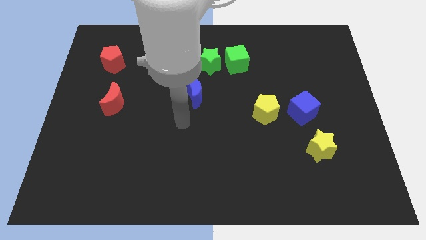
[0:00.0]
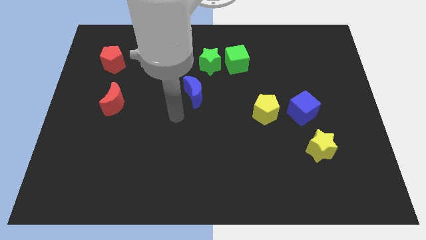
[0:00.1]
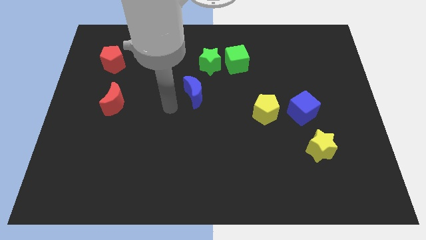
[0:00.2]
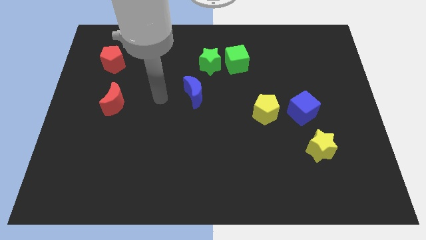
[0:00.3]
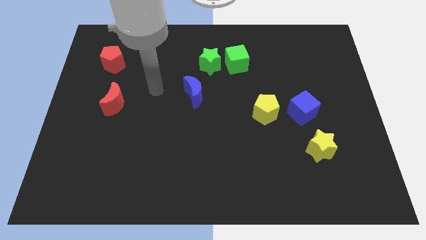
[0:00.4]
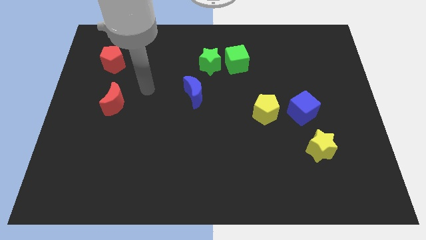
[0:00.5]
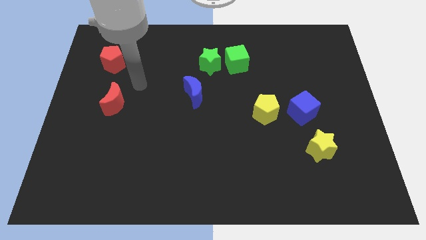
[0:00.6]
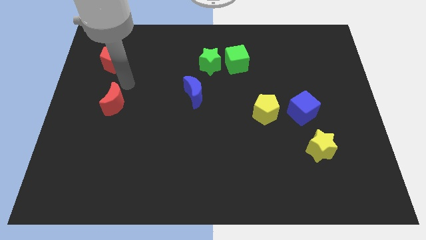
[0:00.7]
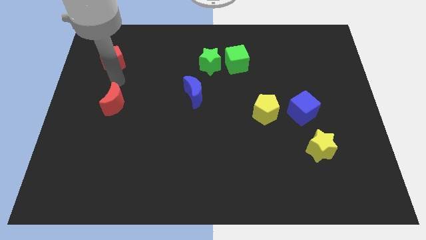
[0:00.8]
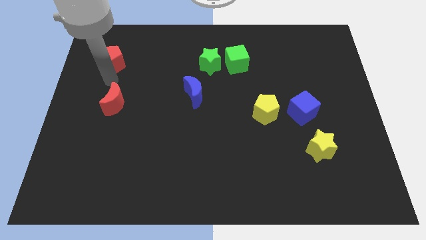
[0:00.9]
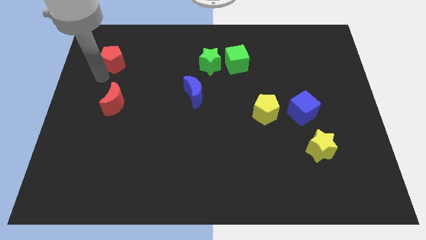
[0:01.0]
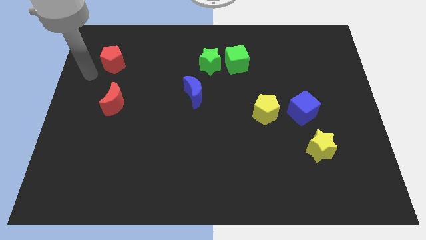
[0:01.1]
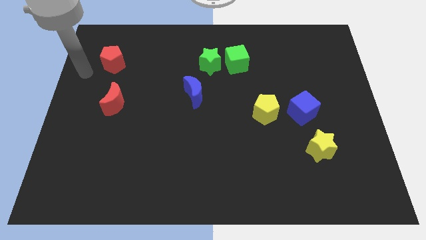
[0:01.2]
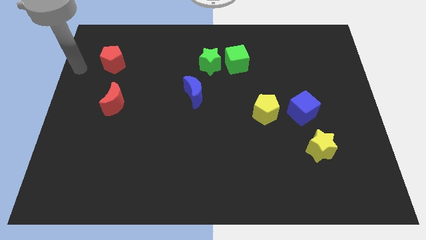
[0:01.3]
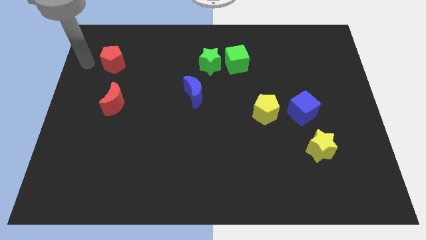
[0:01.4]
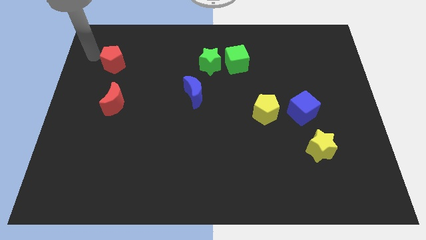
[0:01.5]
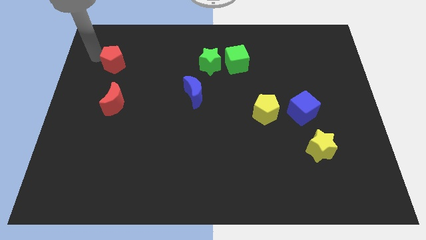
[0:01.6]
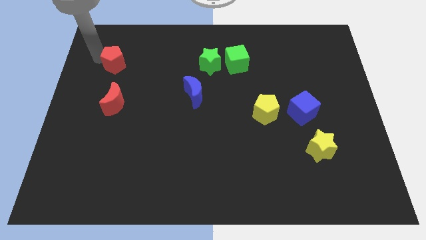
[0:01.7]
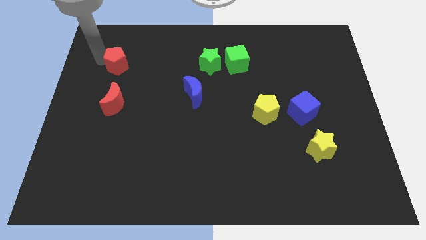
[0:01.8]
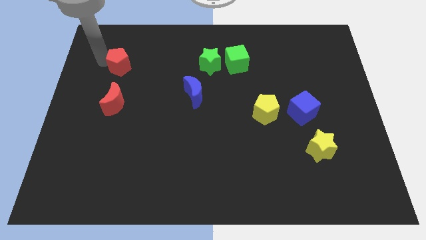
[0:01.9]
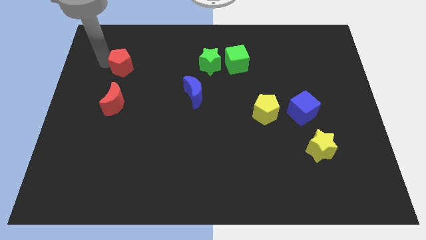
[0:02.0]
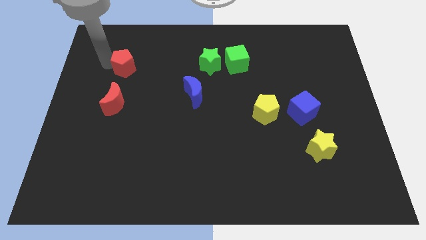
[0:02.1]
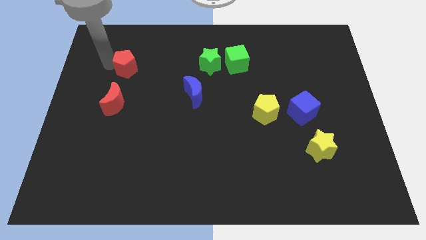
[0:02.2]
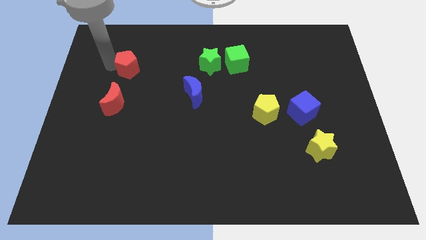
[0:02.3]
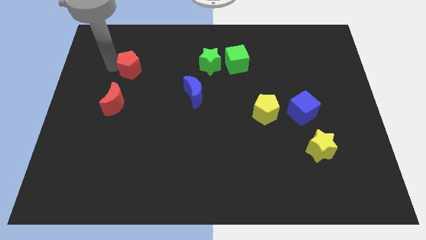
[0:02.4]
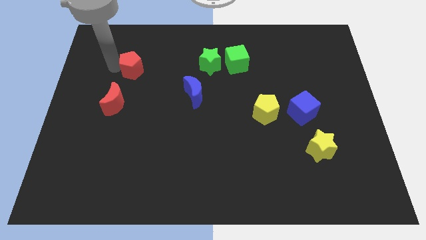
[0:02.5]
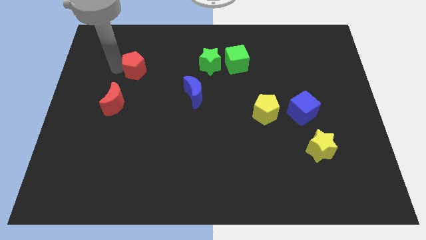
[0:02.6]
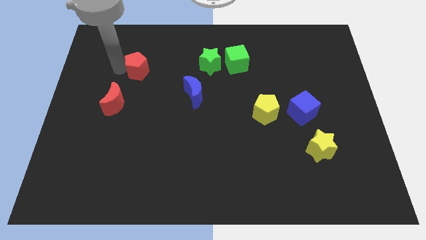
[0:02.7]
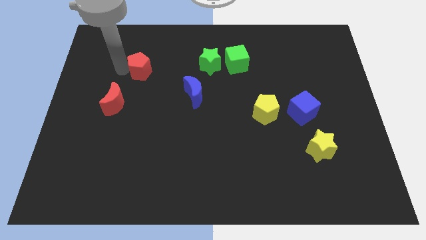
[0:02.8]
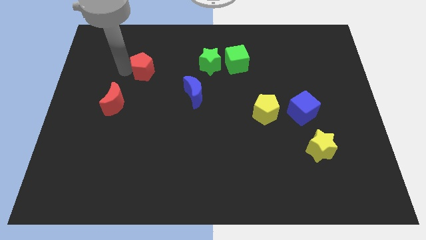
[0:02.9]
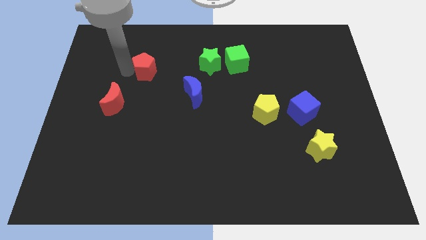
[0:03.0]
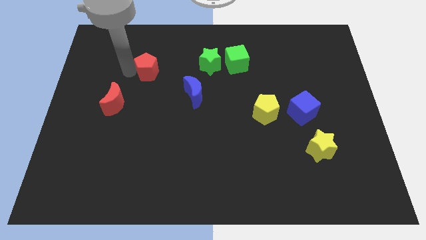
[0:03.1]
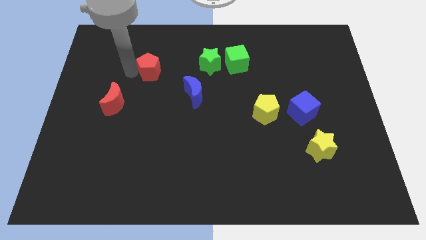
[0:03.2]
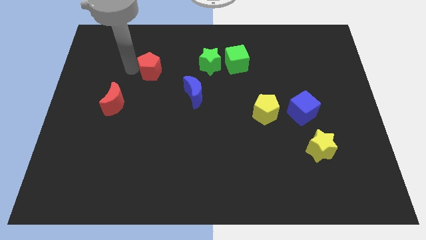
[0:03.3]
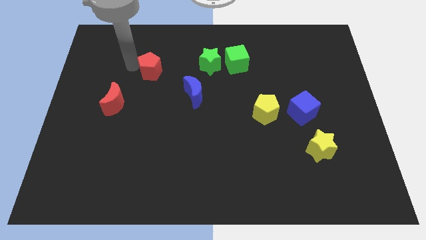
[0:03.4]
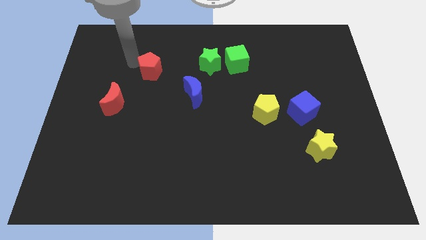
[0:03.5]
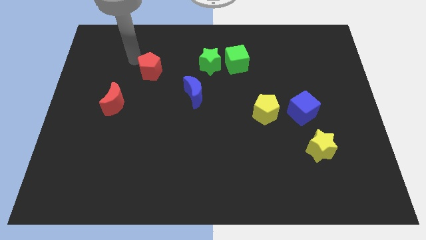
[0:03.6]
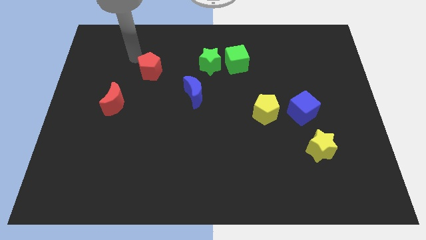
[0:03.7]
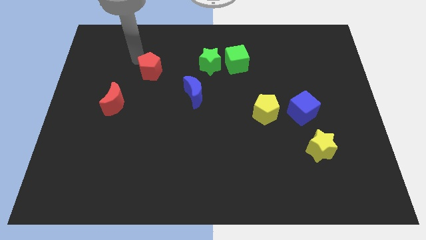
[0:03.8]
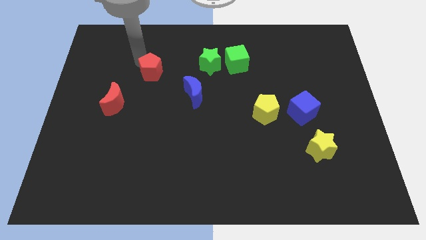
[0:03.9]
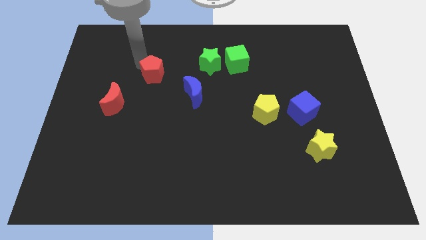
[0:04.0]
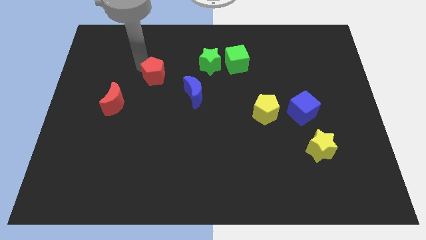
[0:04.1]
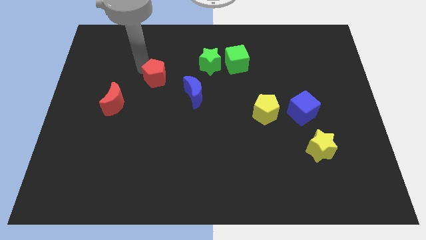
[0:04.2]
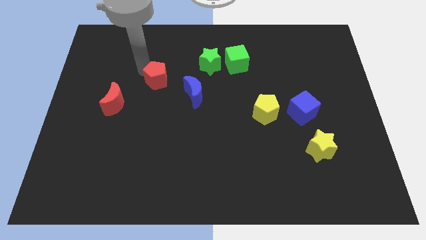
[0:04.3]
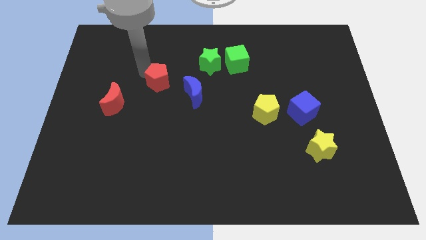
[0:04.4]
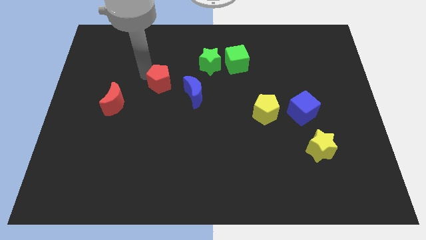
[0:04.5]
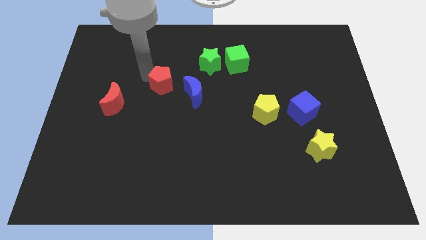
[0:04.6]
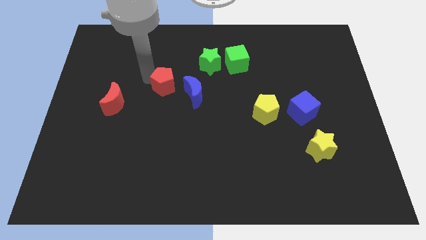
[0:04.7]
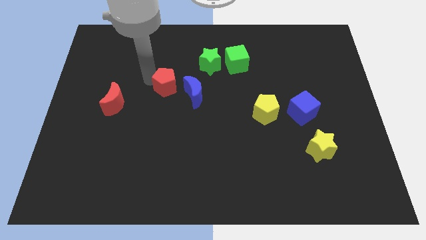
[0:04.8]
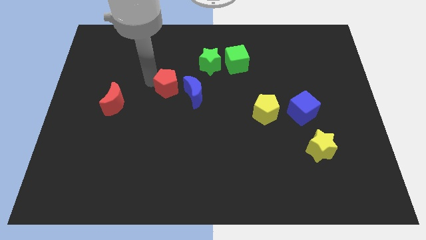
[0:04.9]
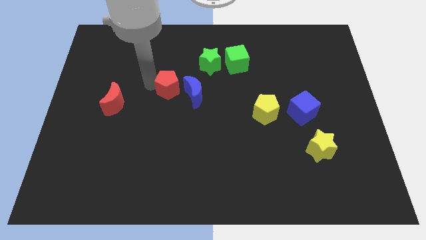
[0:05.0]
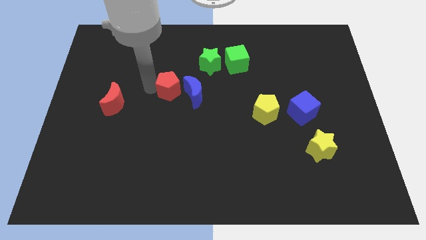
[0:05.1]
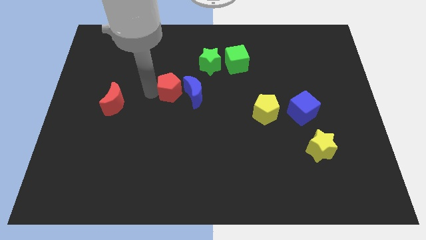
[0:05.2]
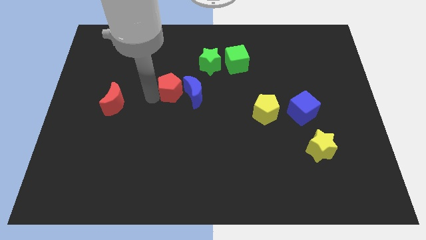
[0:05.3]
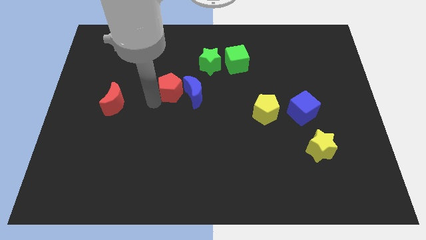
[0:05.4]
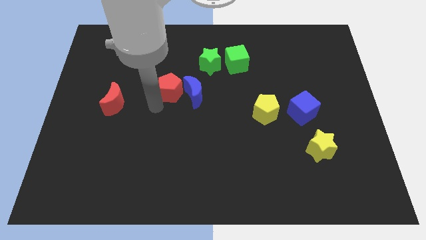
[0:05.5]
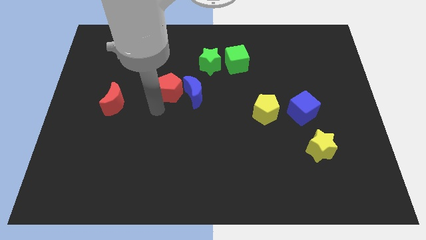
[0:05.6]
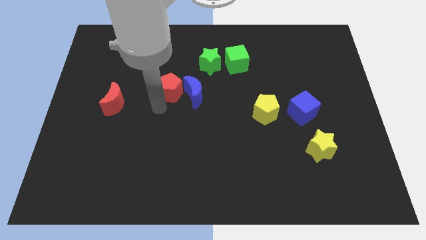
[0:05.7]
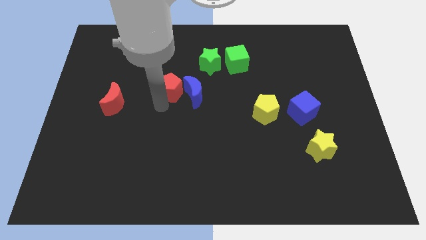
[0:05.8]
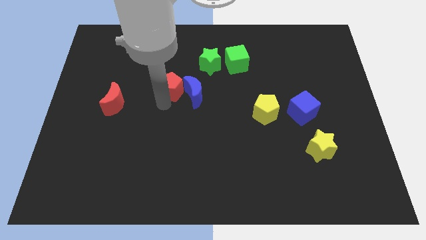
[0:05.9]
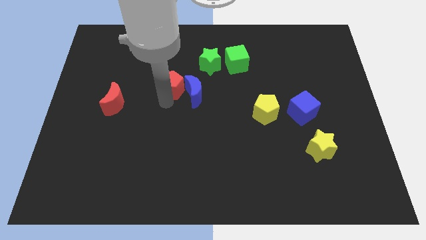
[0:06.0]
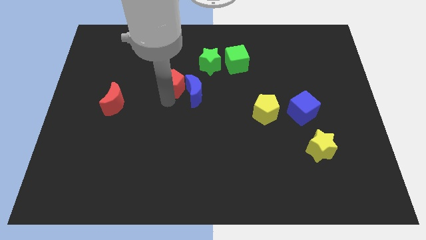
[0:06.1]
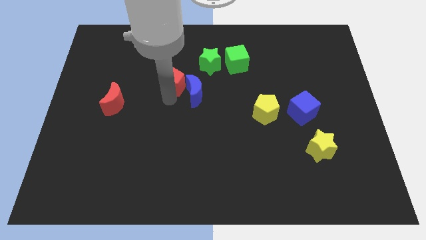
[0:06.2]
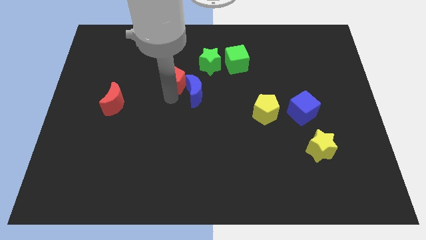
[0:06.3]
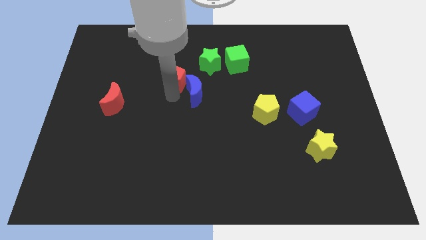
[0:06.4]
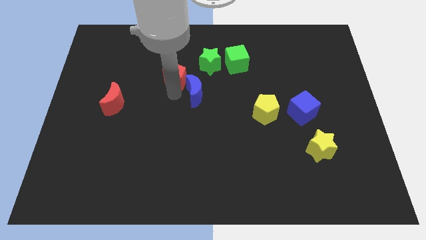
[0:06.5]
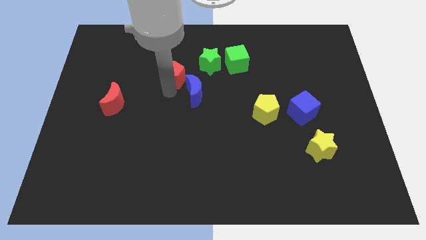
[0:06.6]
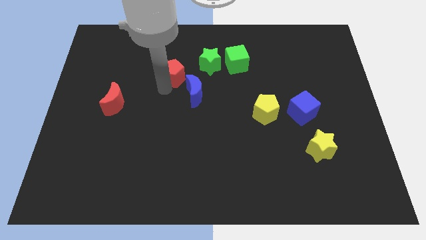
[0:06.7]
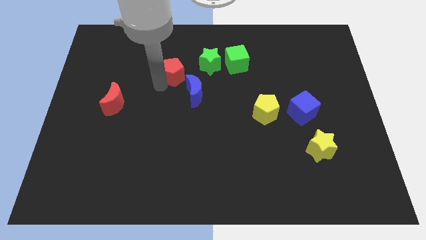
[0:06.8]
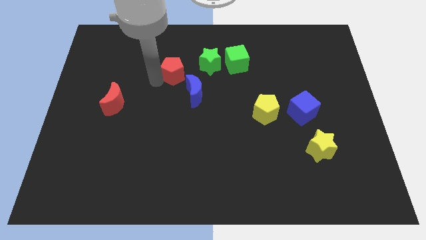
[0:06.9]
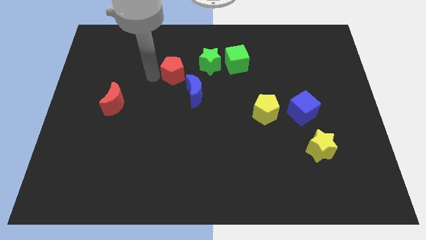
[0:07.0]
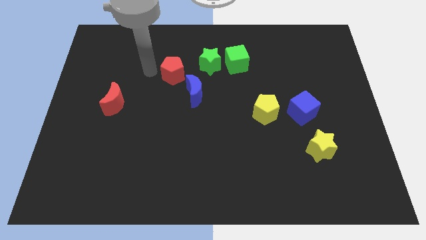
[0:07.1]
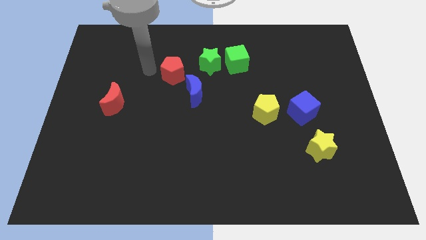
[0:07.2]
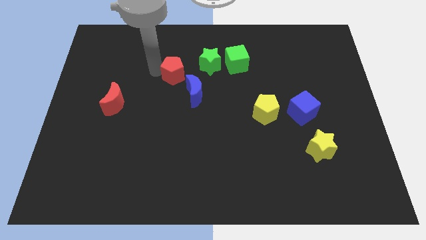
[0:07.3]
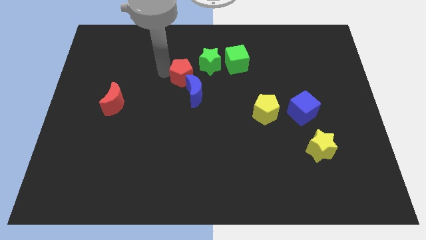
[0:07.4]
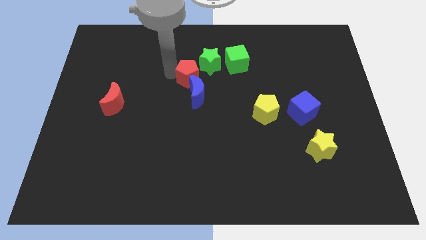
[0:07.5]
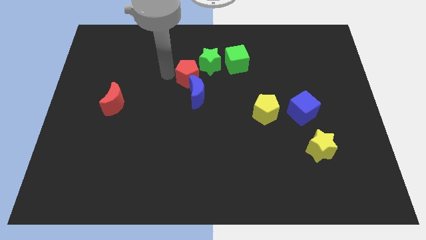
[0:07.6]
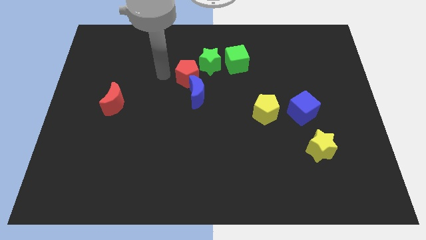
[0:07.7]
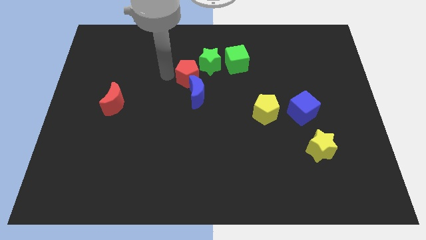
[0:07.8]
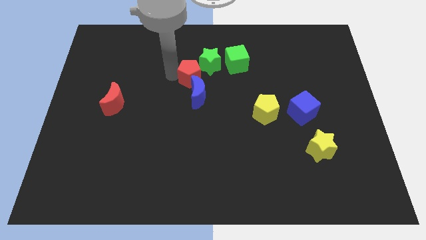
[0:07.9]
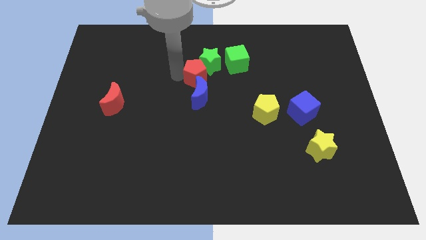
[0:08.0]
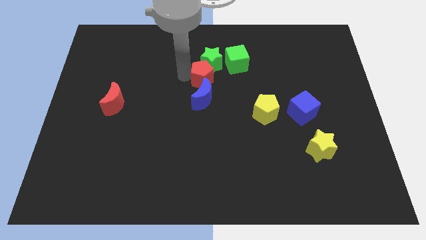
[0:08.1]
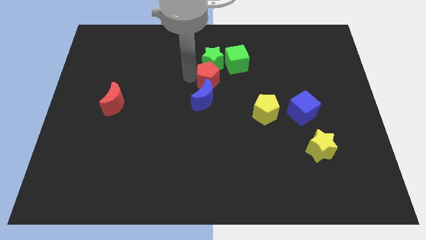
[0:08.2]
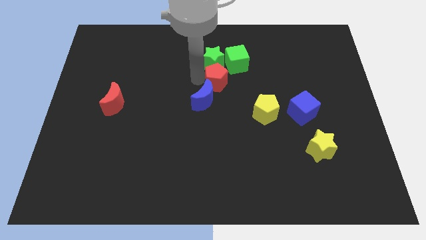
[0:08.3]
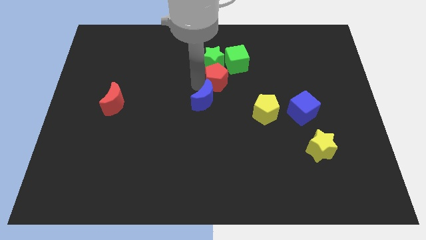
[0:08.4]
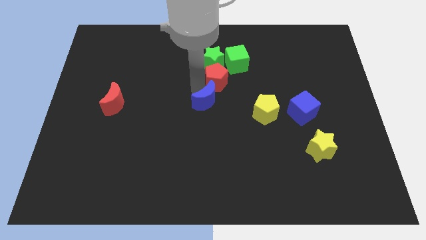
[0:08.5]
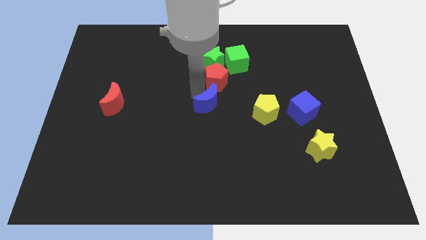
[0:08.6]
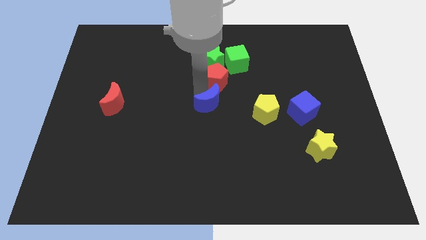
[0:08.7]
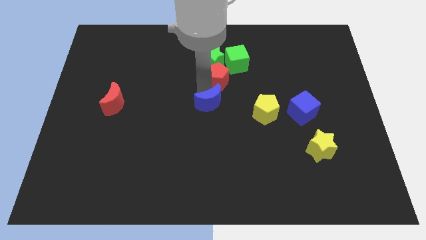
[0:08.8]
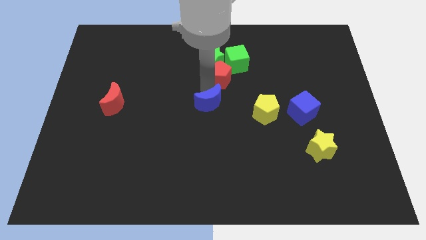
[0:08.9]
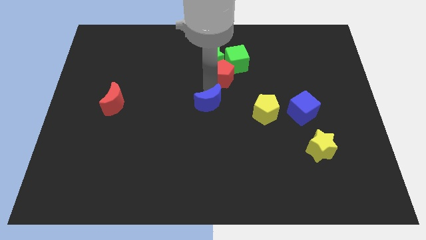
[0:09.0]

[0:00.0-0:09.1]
put the red pentagon towards the green cube
